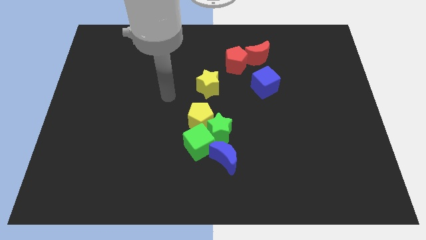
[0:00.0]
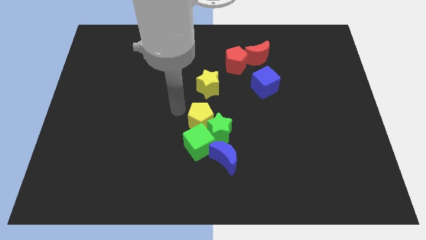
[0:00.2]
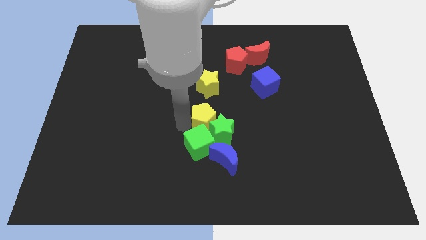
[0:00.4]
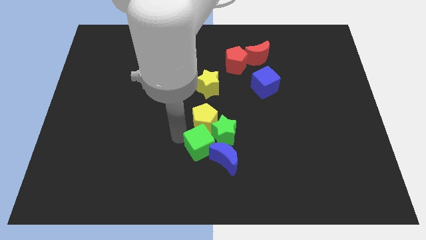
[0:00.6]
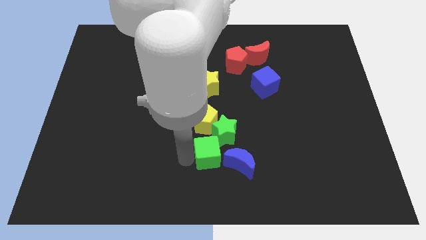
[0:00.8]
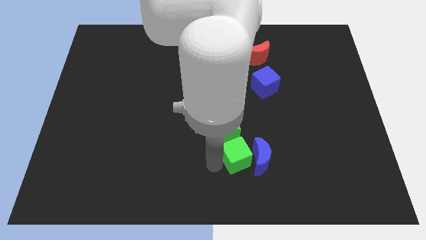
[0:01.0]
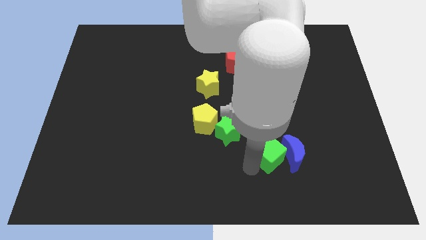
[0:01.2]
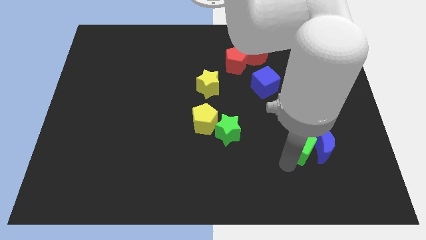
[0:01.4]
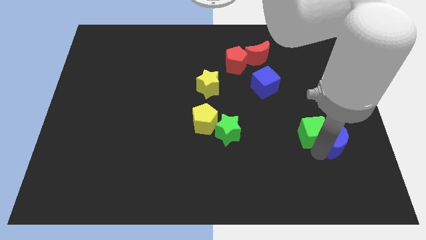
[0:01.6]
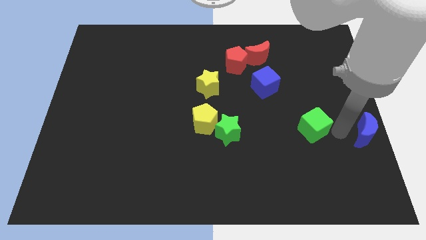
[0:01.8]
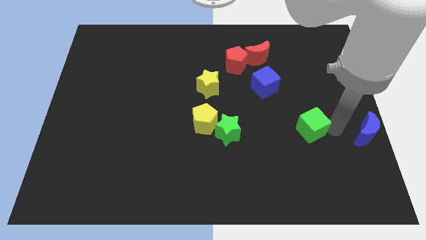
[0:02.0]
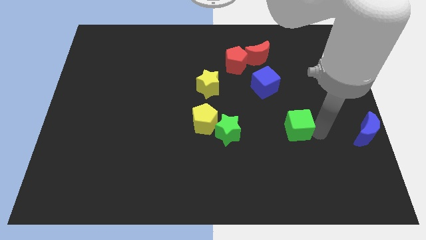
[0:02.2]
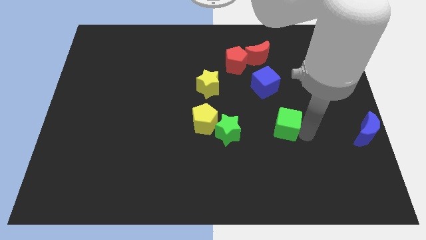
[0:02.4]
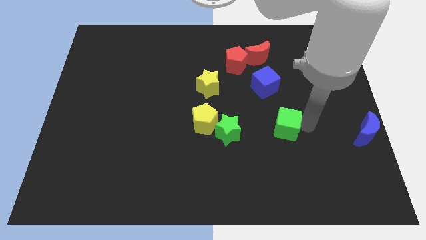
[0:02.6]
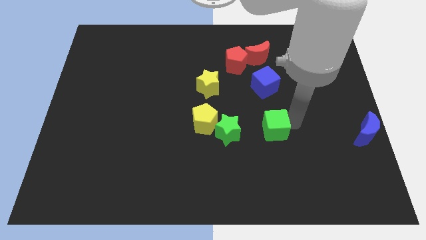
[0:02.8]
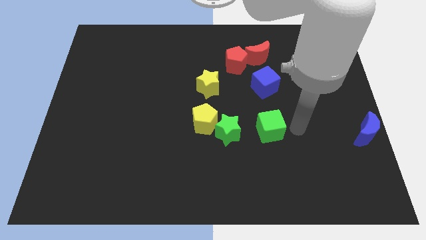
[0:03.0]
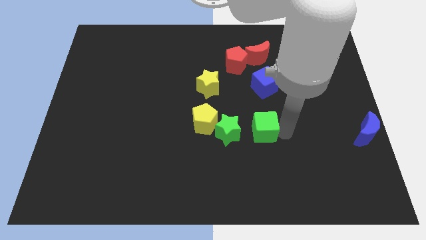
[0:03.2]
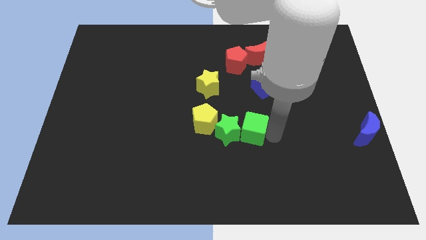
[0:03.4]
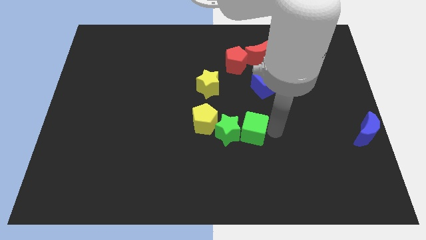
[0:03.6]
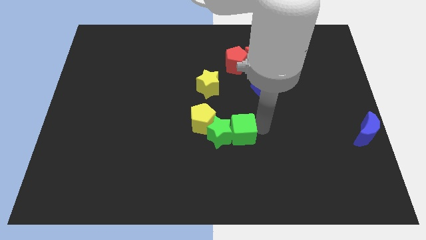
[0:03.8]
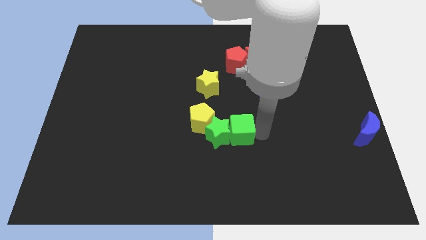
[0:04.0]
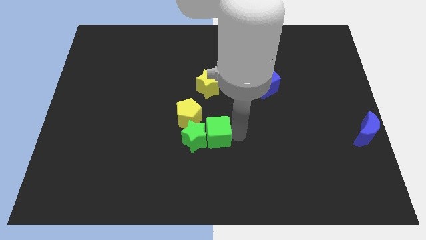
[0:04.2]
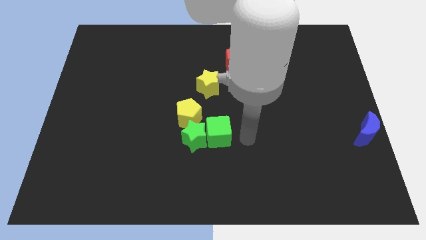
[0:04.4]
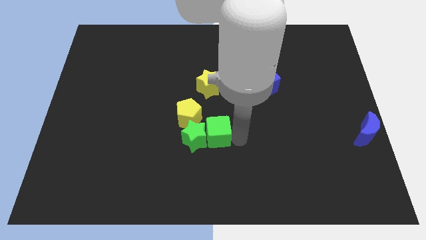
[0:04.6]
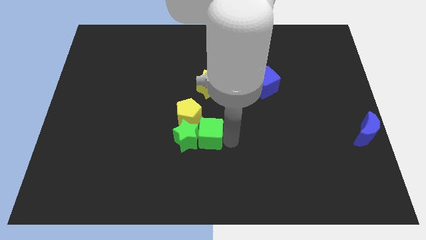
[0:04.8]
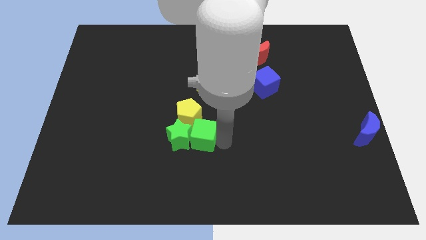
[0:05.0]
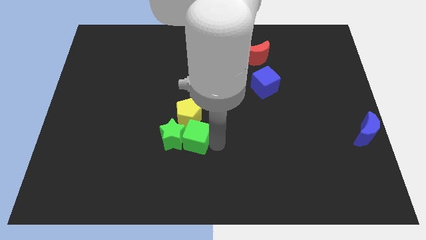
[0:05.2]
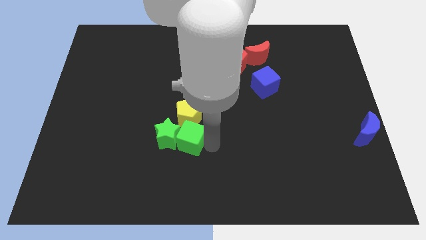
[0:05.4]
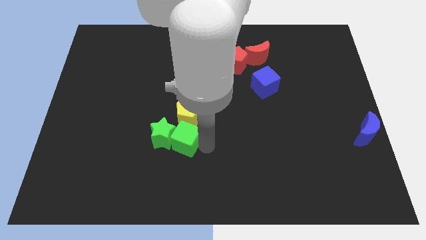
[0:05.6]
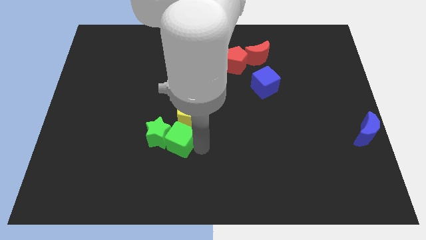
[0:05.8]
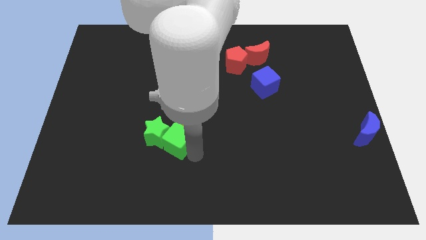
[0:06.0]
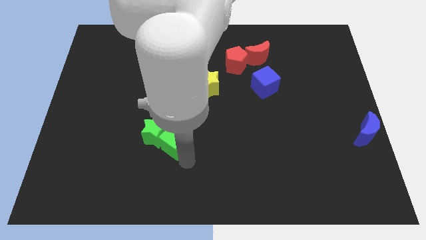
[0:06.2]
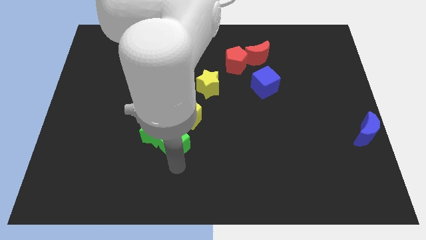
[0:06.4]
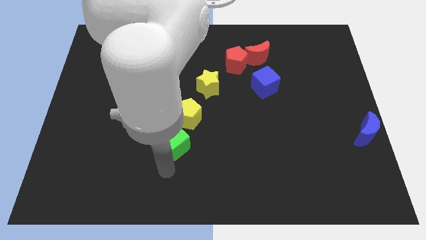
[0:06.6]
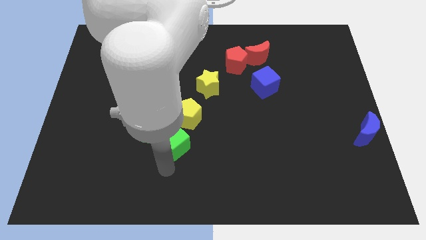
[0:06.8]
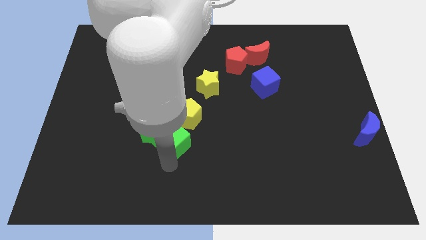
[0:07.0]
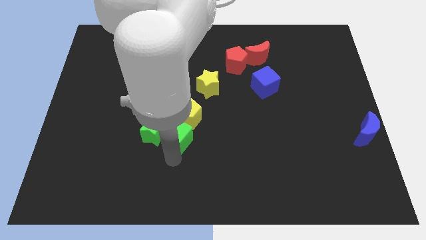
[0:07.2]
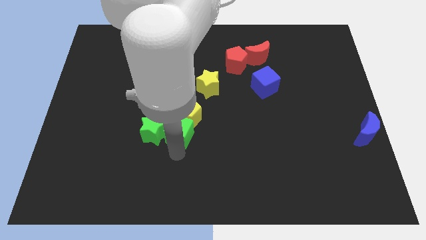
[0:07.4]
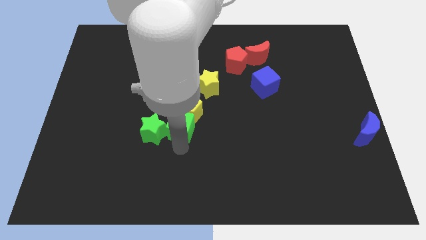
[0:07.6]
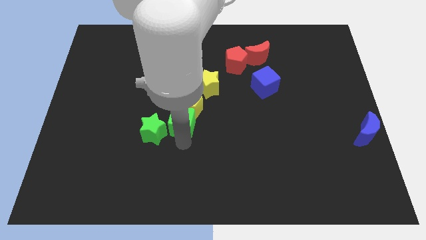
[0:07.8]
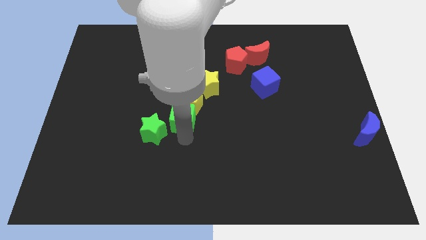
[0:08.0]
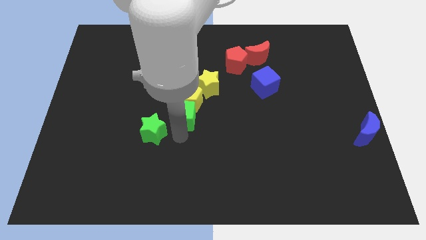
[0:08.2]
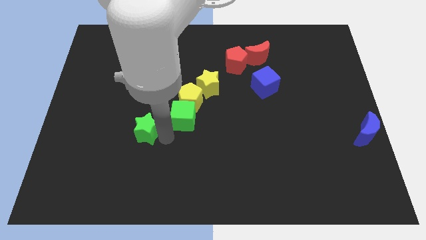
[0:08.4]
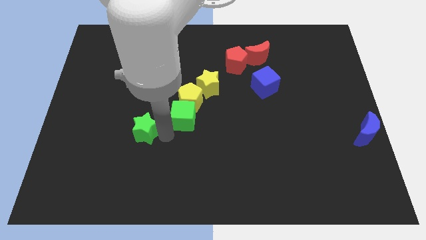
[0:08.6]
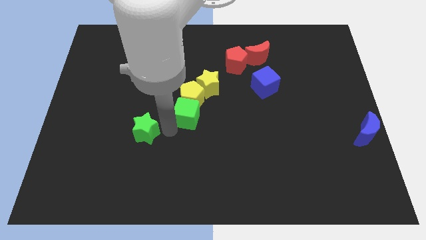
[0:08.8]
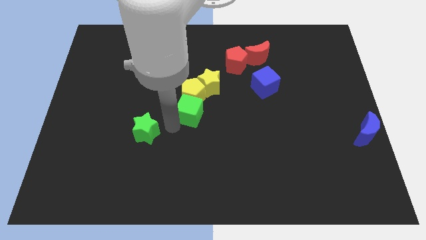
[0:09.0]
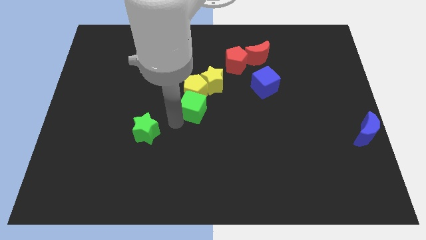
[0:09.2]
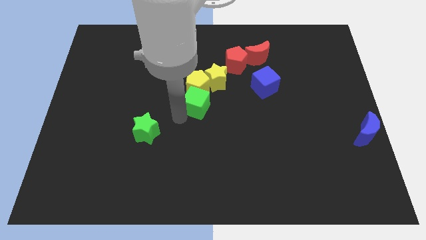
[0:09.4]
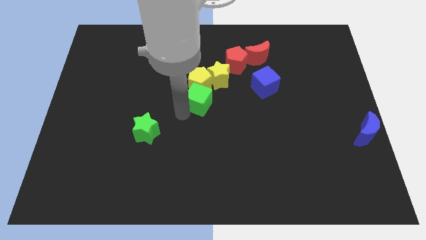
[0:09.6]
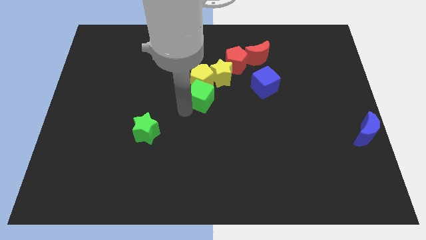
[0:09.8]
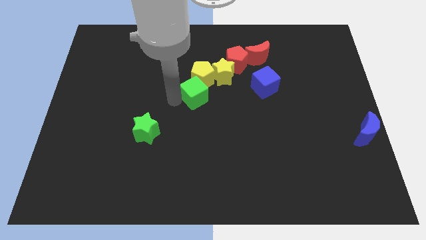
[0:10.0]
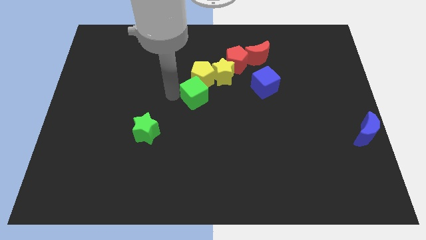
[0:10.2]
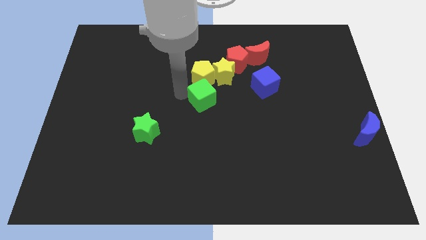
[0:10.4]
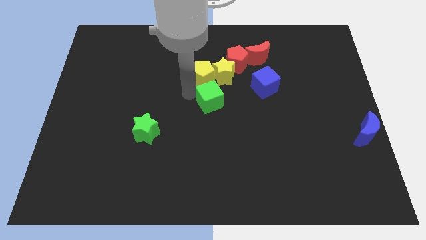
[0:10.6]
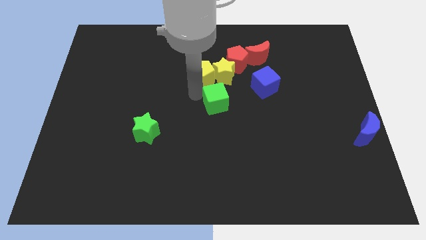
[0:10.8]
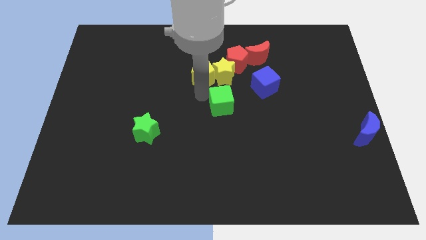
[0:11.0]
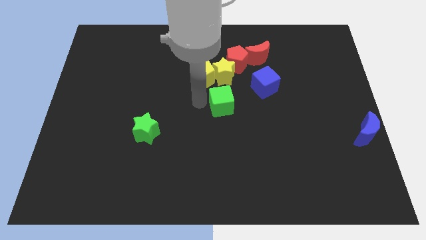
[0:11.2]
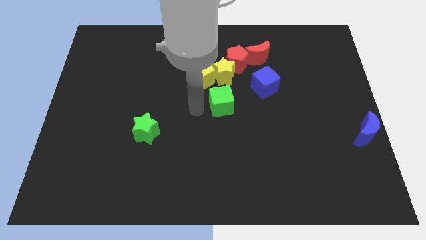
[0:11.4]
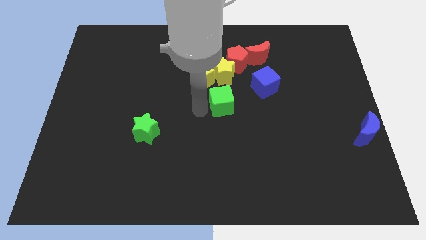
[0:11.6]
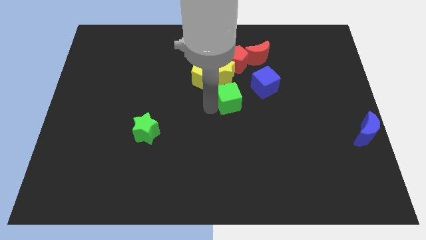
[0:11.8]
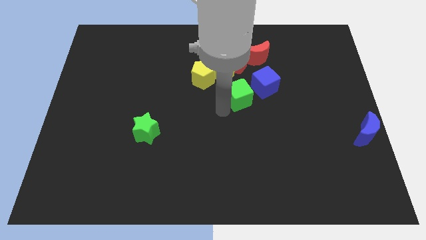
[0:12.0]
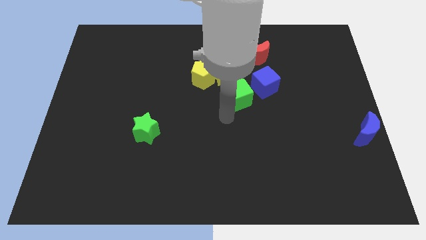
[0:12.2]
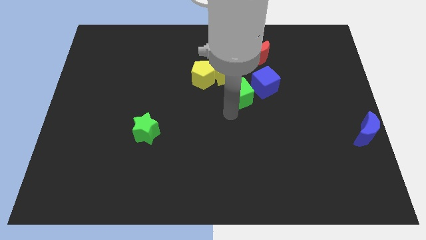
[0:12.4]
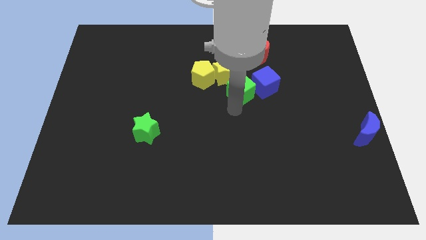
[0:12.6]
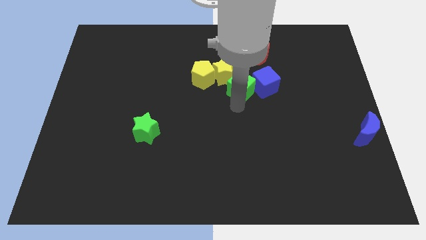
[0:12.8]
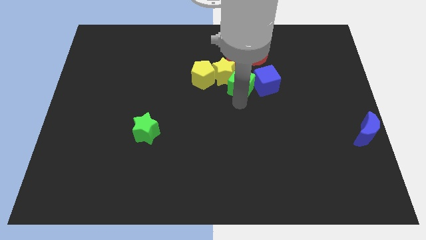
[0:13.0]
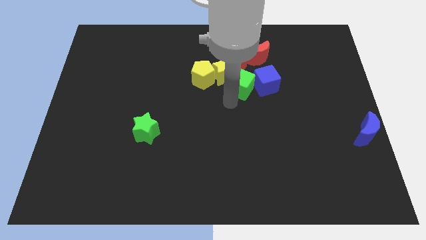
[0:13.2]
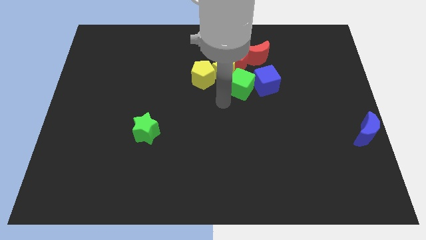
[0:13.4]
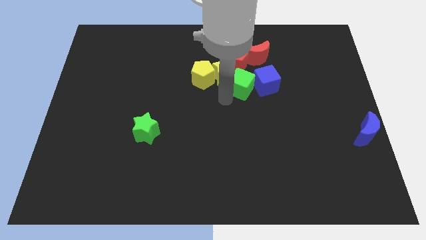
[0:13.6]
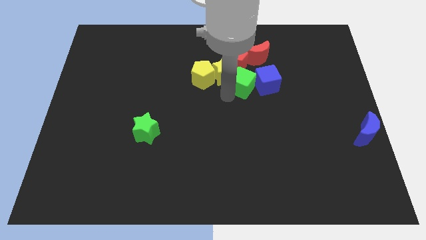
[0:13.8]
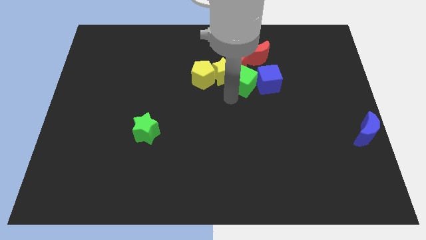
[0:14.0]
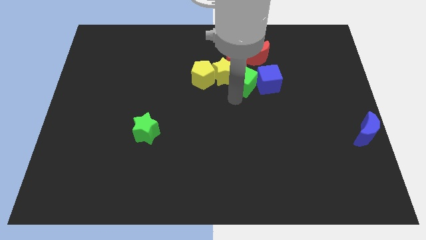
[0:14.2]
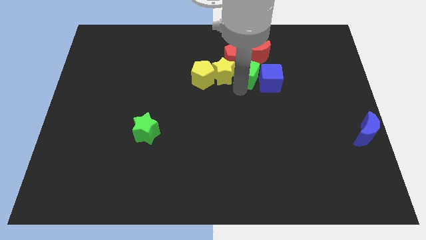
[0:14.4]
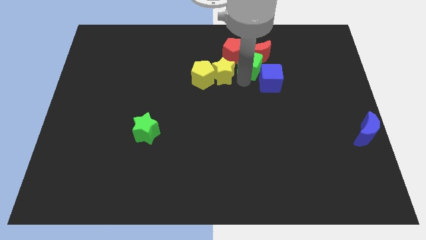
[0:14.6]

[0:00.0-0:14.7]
slide the green cube towards the red moon
